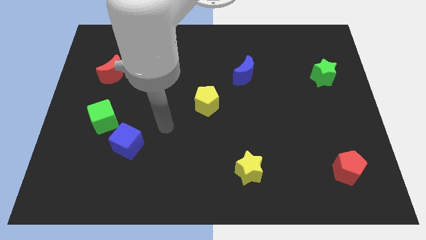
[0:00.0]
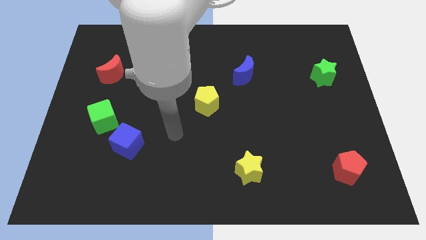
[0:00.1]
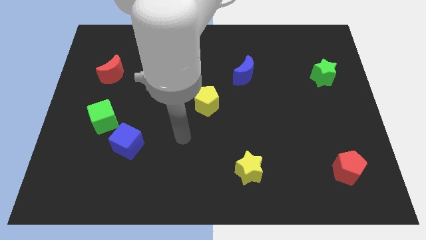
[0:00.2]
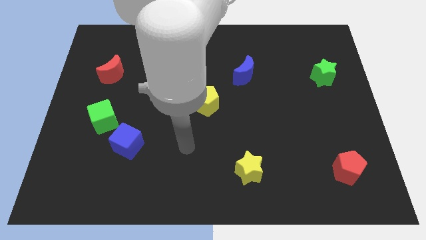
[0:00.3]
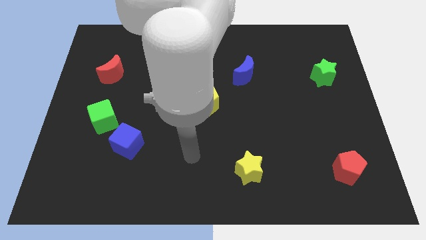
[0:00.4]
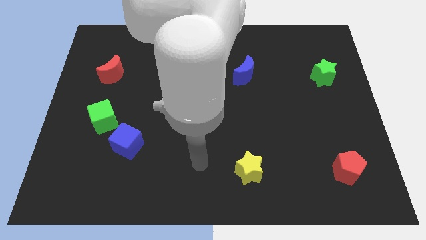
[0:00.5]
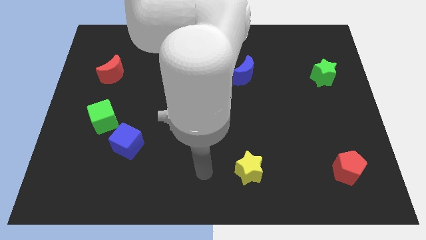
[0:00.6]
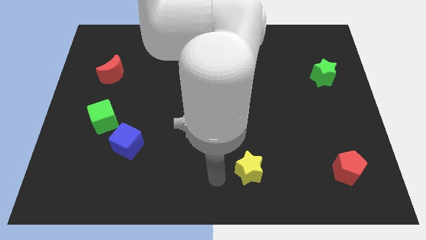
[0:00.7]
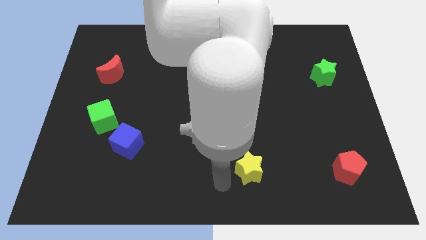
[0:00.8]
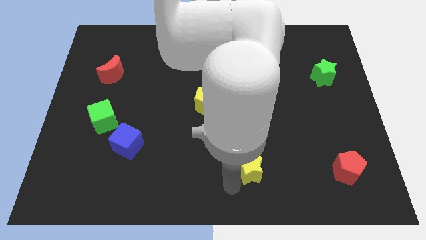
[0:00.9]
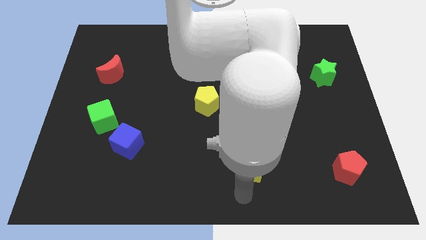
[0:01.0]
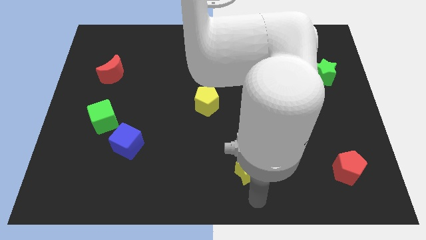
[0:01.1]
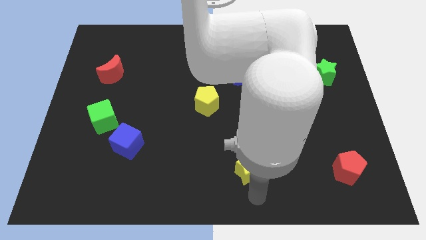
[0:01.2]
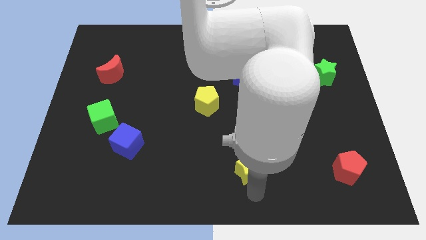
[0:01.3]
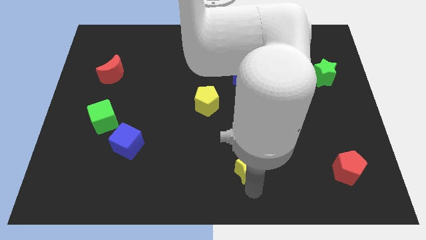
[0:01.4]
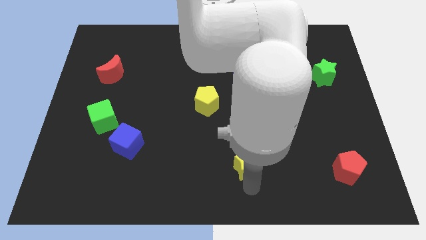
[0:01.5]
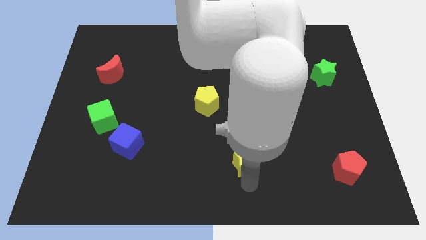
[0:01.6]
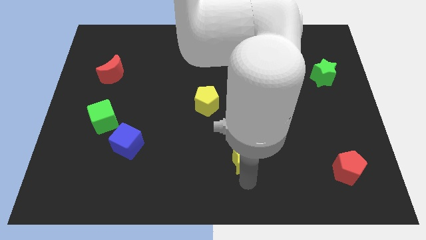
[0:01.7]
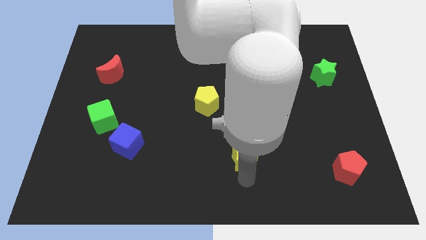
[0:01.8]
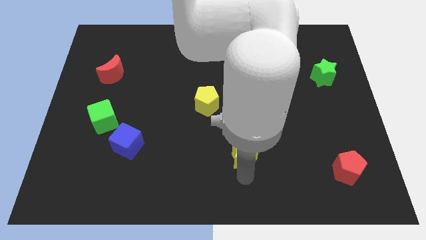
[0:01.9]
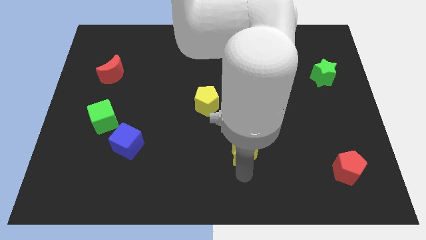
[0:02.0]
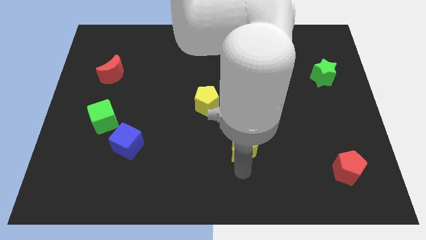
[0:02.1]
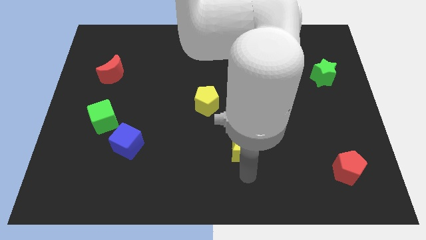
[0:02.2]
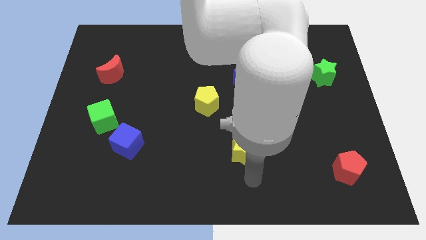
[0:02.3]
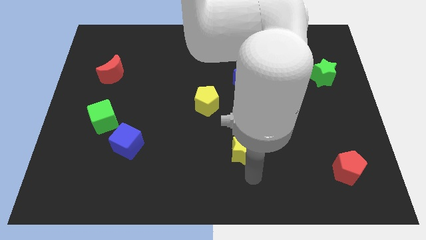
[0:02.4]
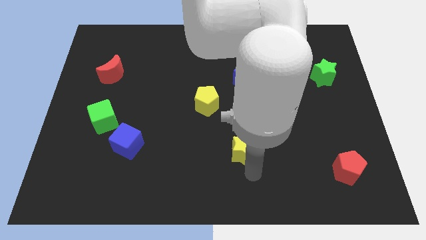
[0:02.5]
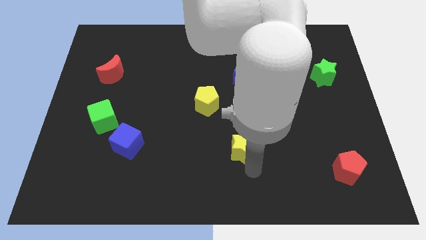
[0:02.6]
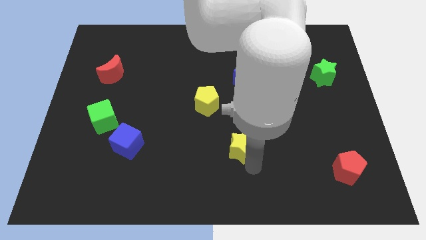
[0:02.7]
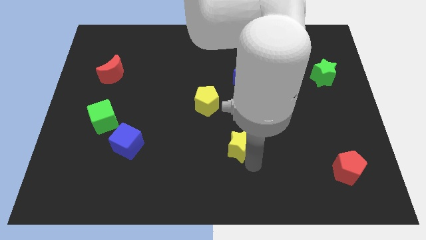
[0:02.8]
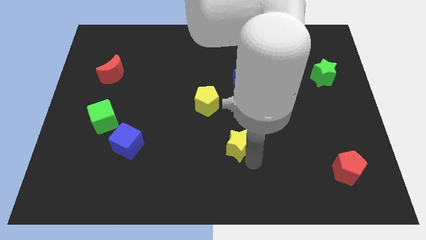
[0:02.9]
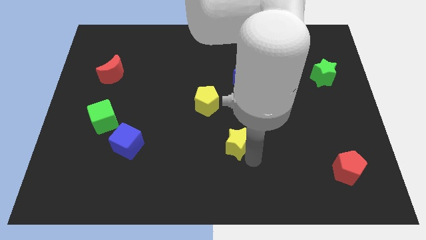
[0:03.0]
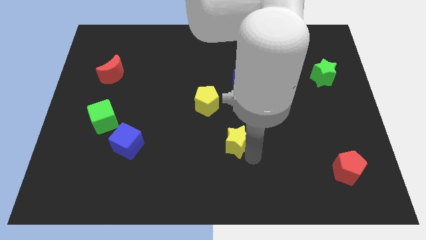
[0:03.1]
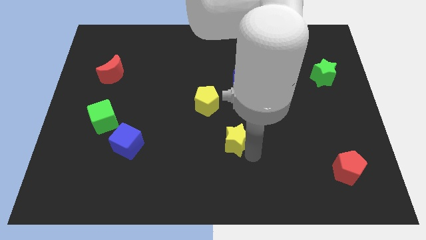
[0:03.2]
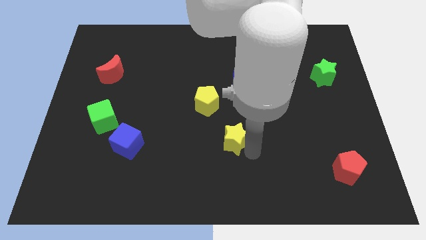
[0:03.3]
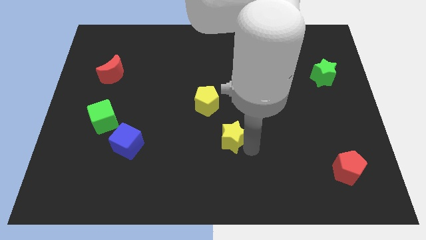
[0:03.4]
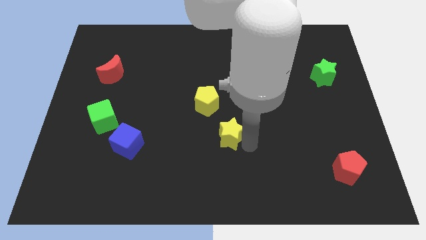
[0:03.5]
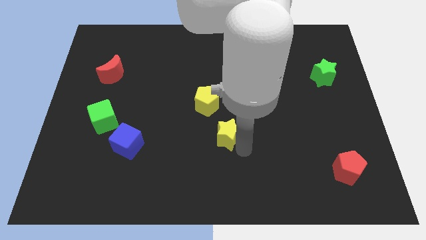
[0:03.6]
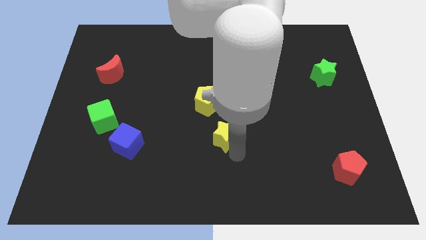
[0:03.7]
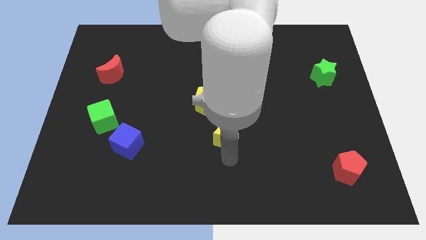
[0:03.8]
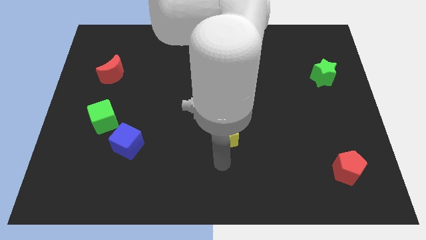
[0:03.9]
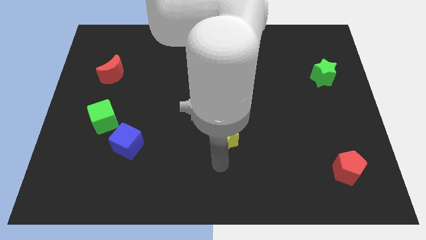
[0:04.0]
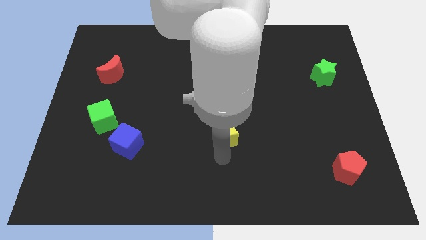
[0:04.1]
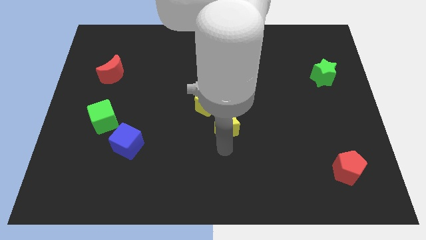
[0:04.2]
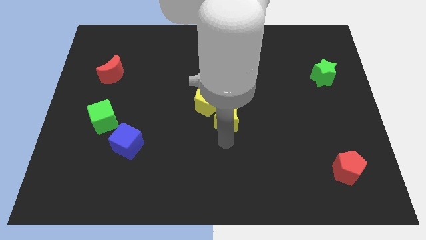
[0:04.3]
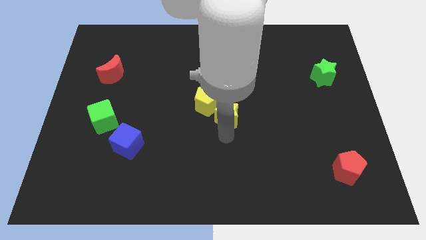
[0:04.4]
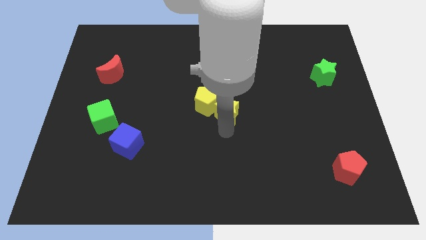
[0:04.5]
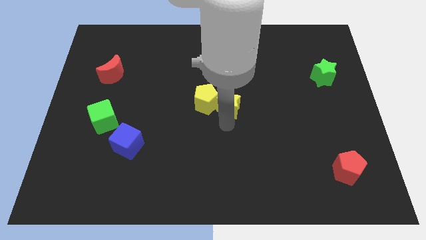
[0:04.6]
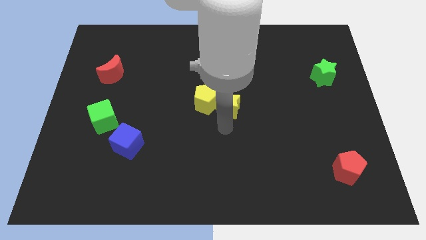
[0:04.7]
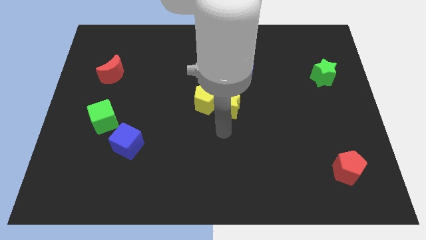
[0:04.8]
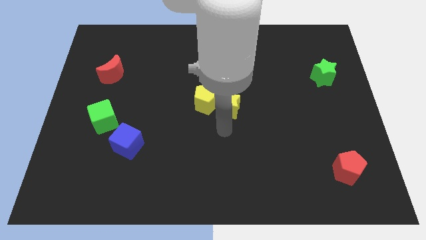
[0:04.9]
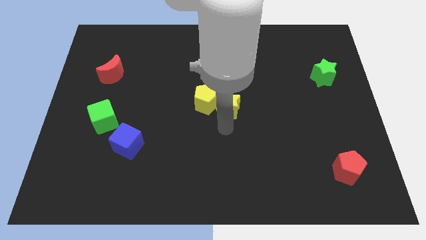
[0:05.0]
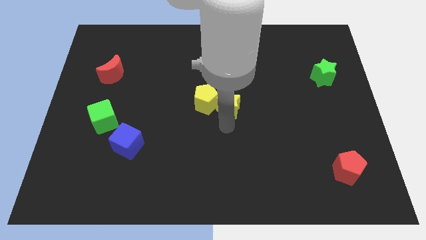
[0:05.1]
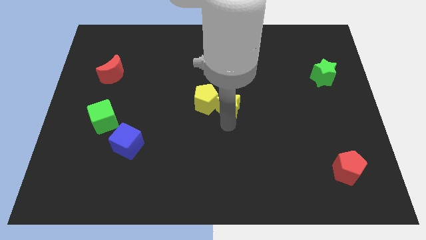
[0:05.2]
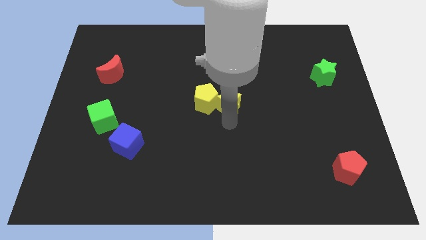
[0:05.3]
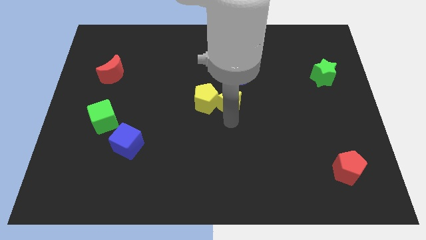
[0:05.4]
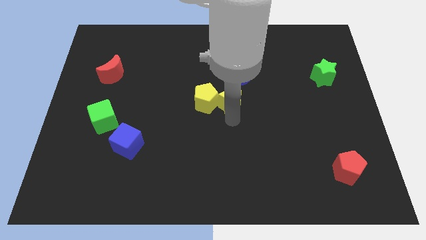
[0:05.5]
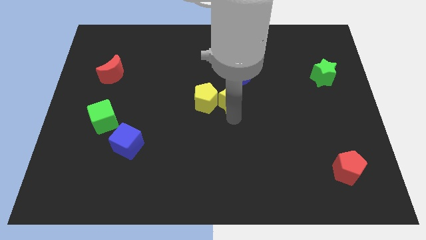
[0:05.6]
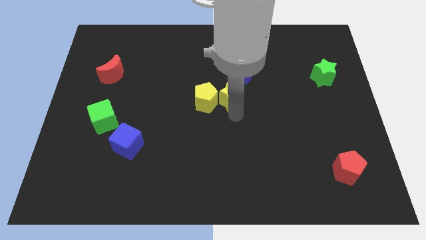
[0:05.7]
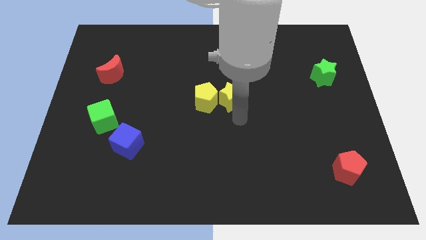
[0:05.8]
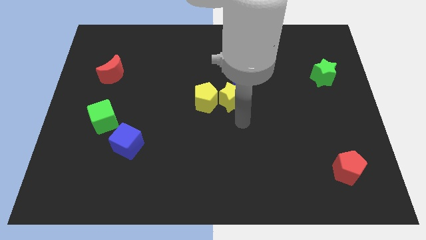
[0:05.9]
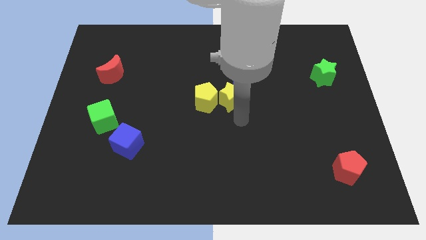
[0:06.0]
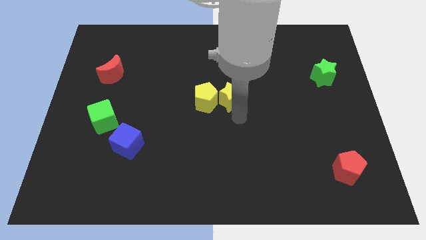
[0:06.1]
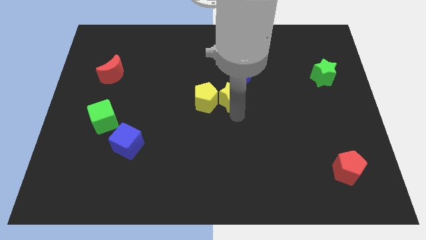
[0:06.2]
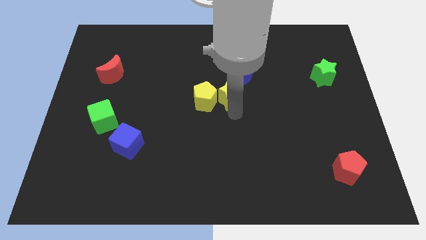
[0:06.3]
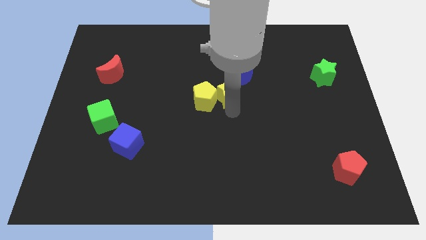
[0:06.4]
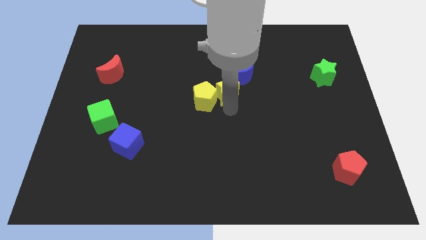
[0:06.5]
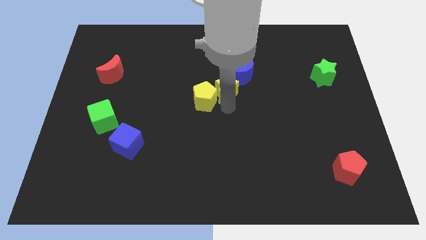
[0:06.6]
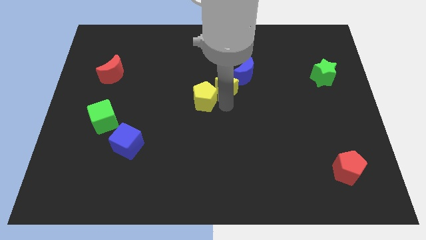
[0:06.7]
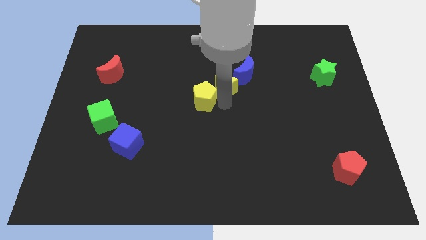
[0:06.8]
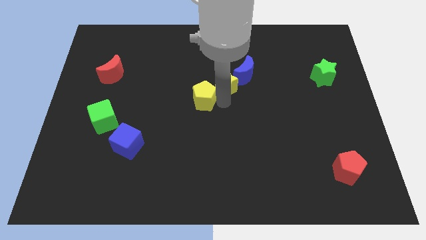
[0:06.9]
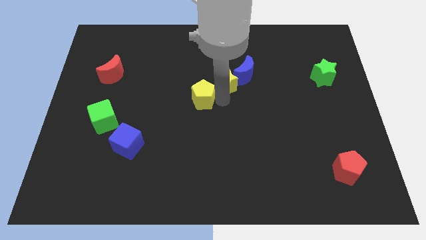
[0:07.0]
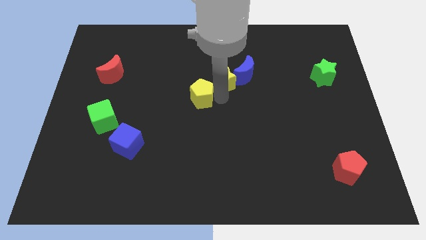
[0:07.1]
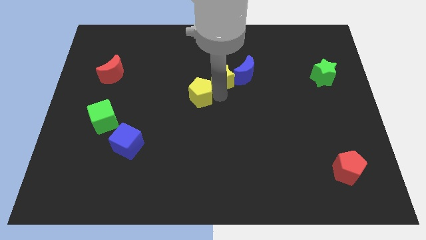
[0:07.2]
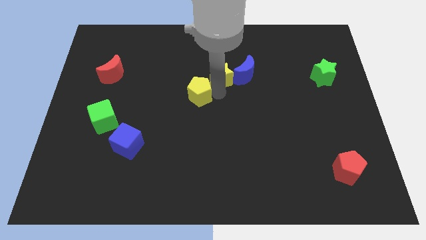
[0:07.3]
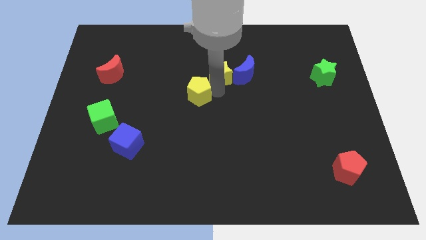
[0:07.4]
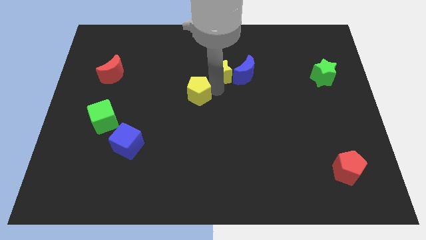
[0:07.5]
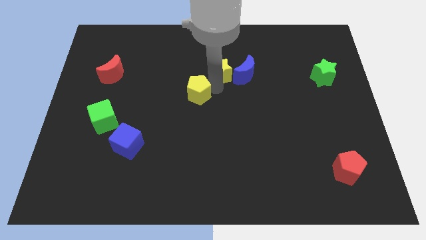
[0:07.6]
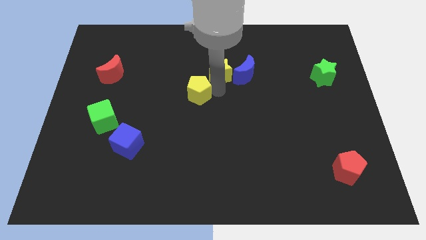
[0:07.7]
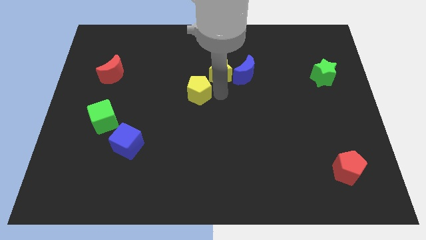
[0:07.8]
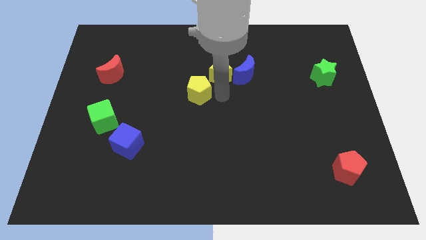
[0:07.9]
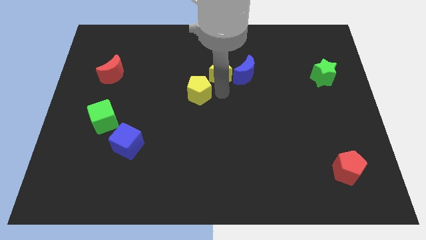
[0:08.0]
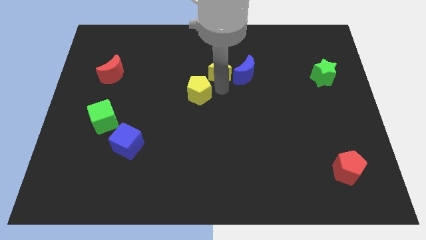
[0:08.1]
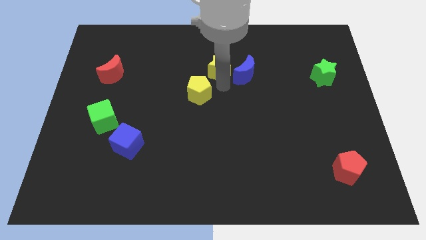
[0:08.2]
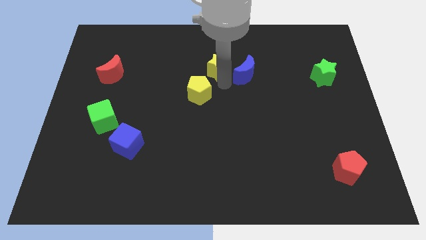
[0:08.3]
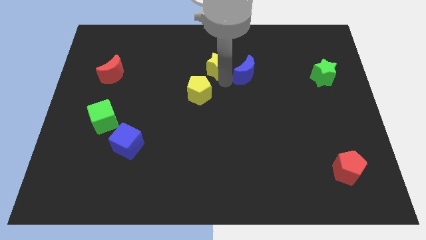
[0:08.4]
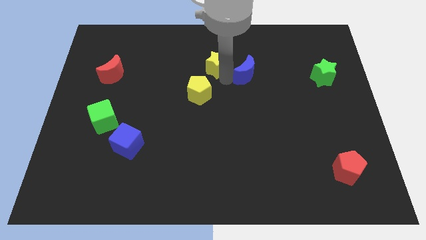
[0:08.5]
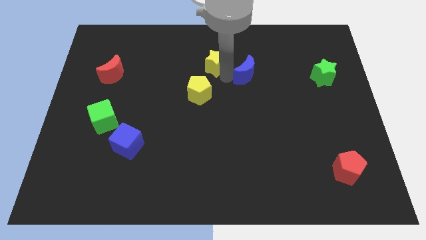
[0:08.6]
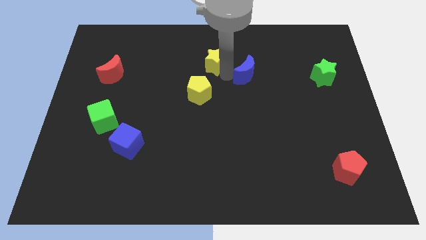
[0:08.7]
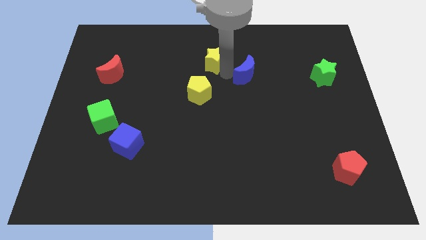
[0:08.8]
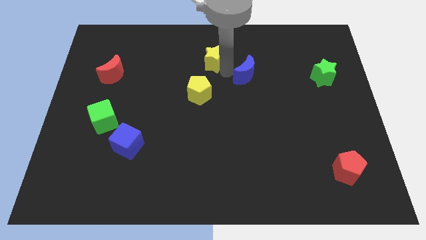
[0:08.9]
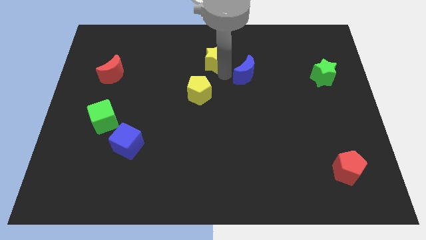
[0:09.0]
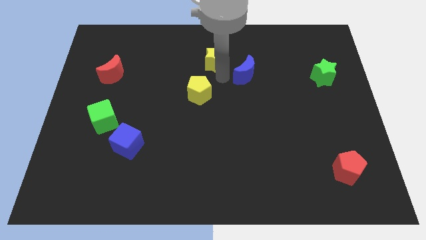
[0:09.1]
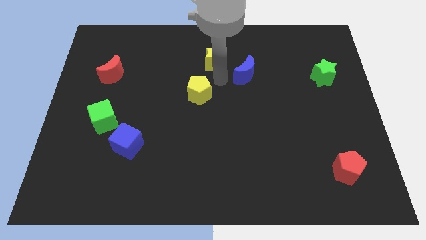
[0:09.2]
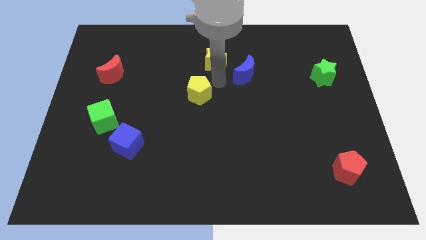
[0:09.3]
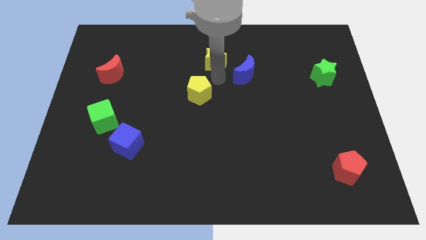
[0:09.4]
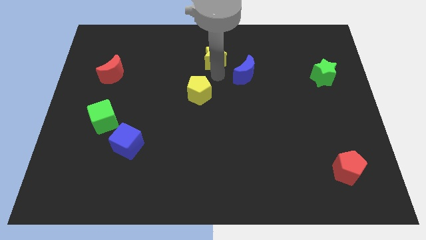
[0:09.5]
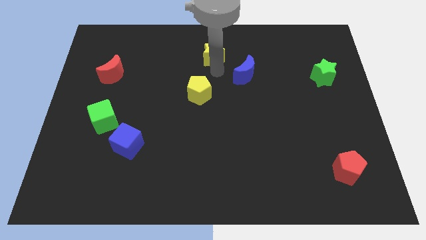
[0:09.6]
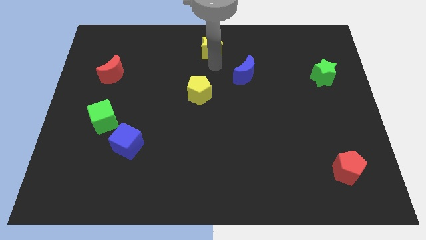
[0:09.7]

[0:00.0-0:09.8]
put the yellow star to the towards your base
